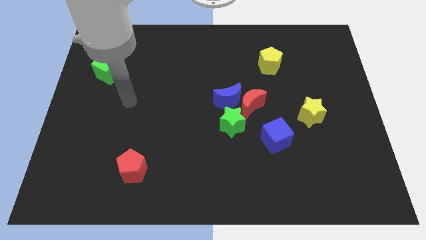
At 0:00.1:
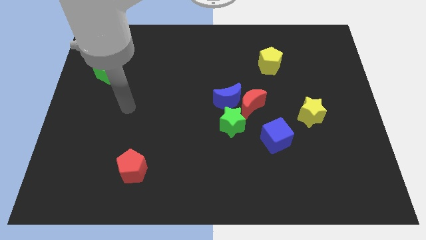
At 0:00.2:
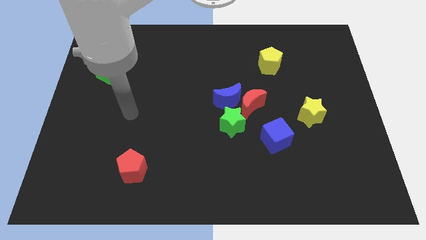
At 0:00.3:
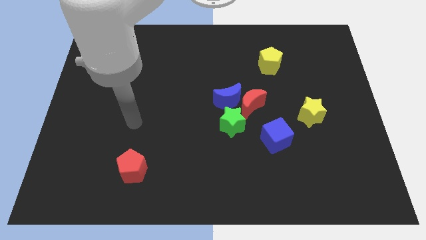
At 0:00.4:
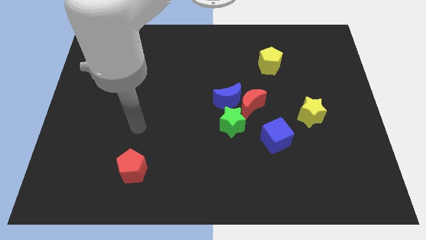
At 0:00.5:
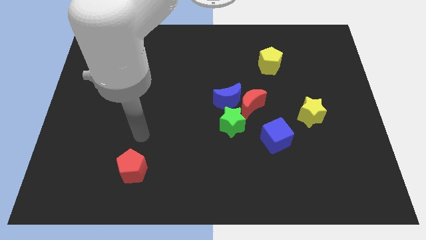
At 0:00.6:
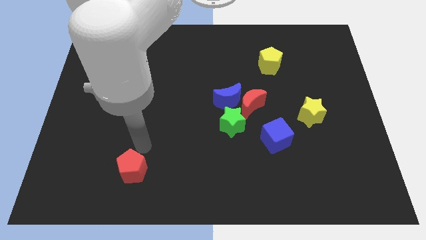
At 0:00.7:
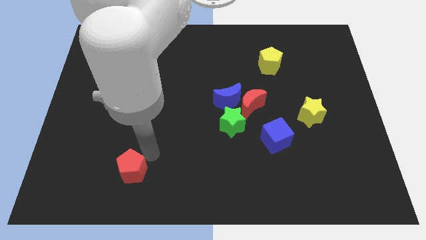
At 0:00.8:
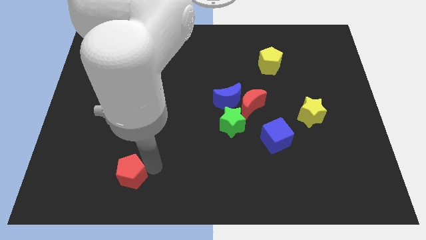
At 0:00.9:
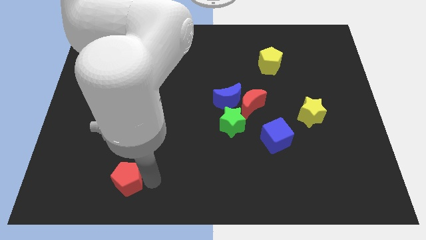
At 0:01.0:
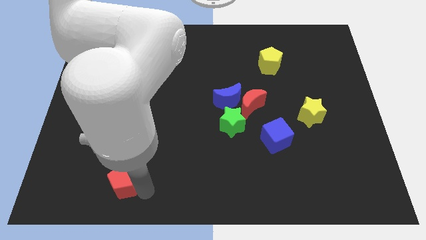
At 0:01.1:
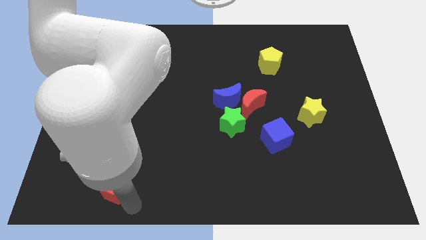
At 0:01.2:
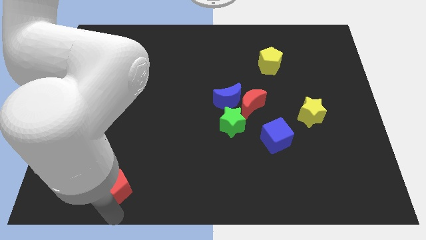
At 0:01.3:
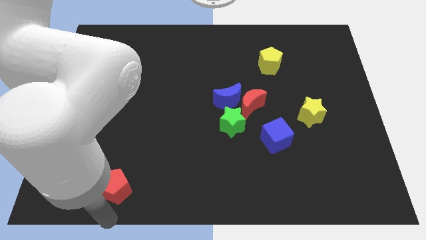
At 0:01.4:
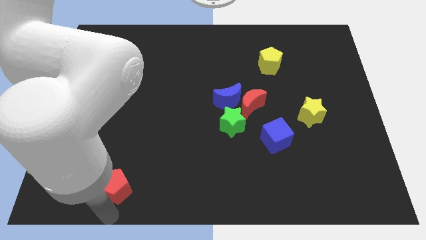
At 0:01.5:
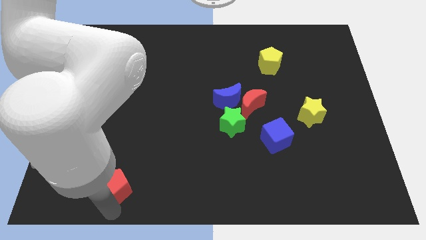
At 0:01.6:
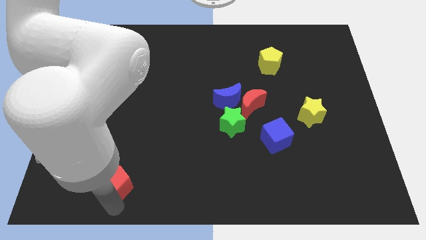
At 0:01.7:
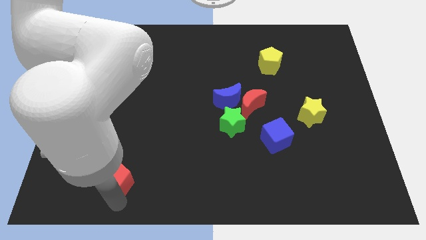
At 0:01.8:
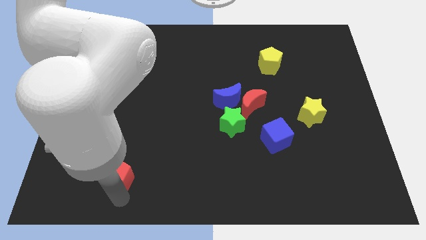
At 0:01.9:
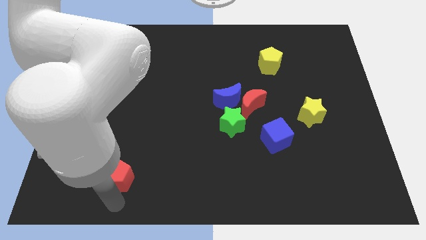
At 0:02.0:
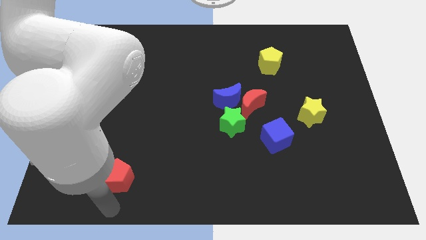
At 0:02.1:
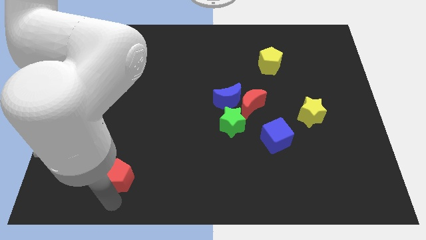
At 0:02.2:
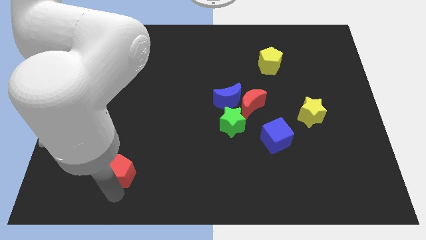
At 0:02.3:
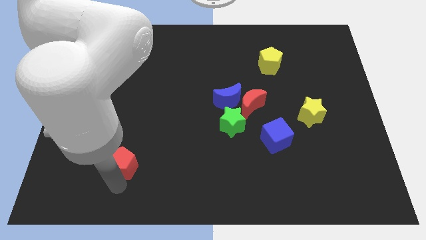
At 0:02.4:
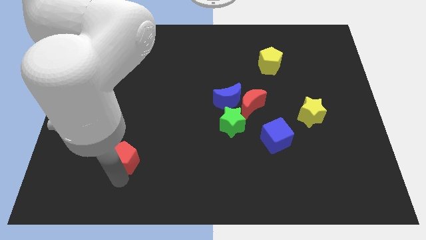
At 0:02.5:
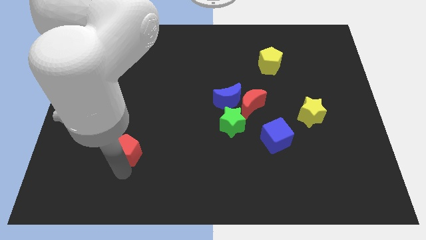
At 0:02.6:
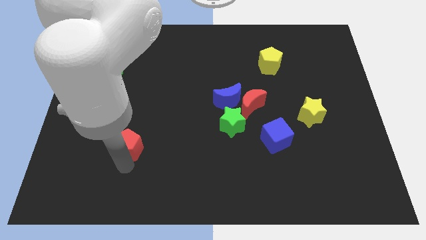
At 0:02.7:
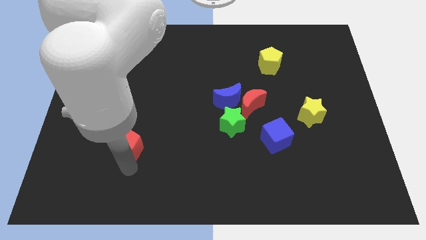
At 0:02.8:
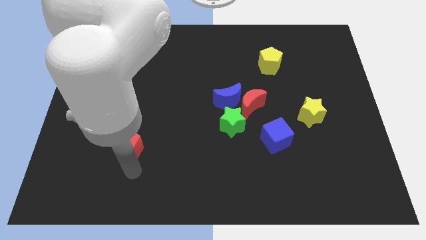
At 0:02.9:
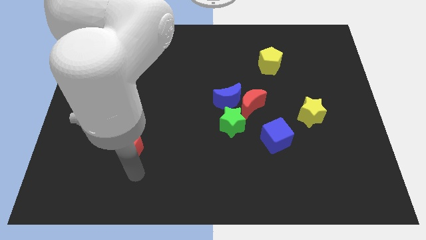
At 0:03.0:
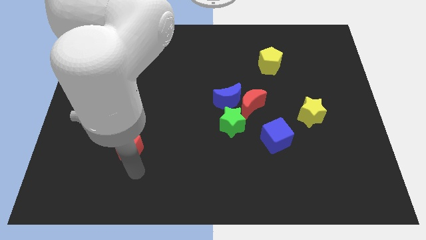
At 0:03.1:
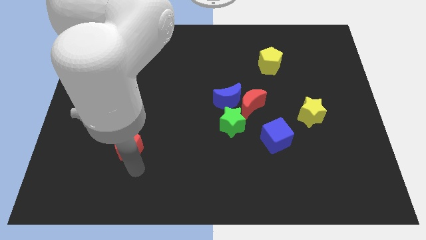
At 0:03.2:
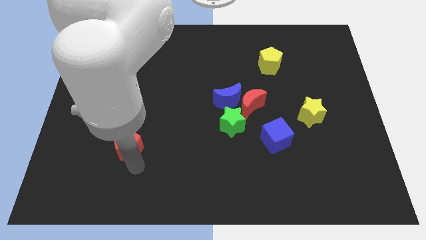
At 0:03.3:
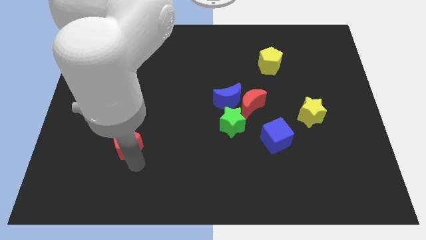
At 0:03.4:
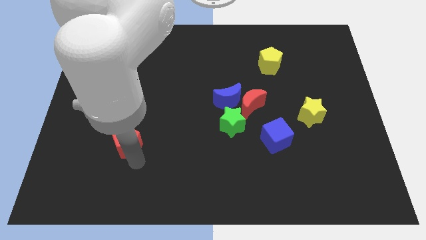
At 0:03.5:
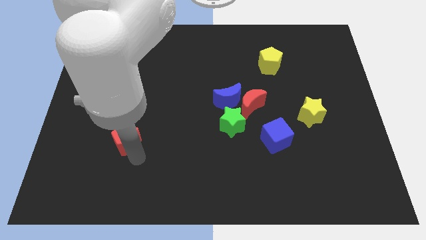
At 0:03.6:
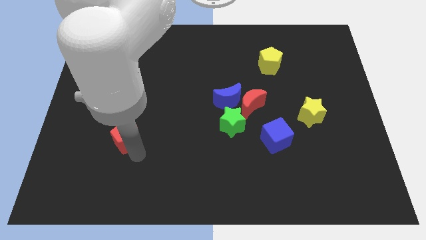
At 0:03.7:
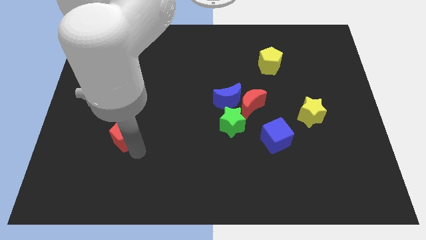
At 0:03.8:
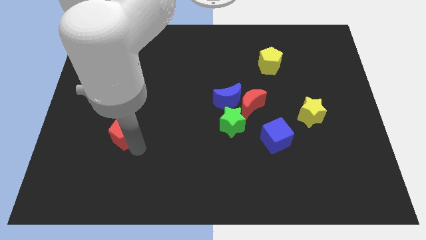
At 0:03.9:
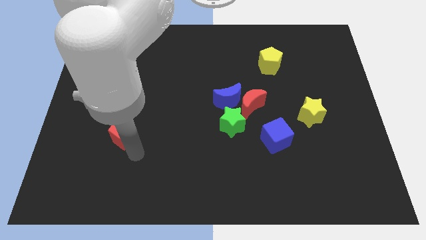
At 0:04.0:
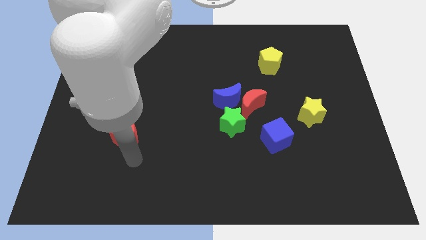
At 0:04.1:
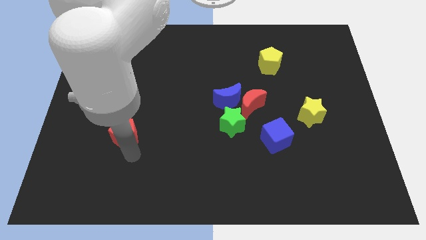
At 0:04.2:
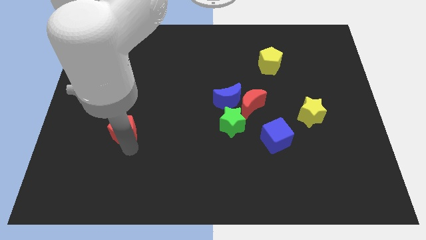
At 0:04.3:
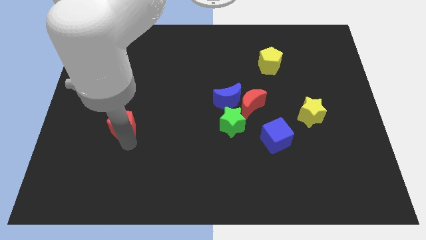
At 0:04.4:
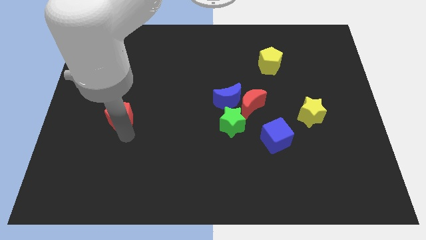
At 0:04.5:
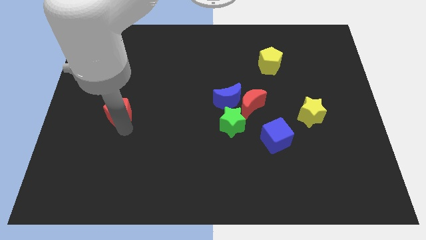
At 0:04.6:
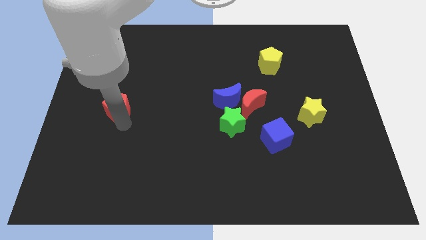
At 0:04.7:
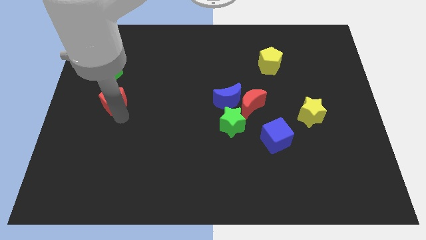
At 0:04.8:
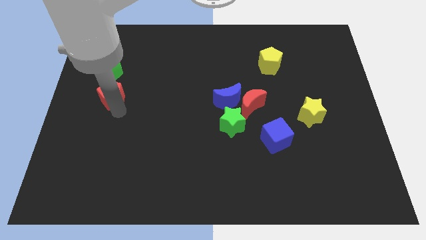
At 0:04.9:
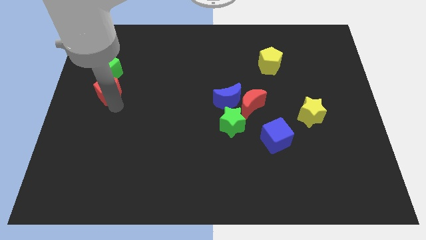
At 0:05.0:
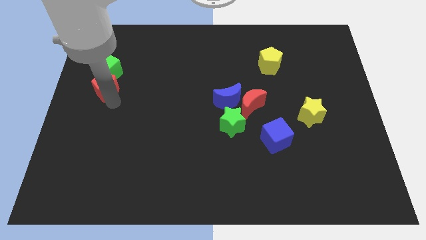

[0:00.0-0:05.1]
put the red pentagon close to the green cube
